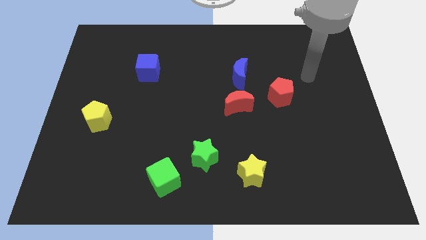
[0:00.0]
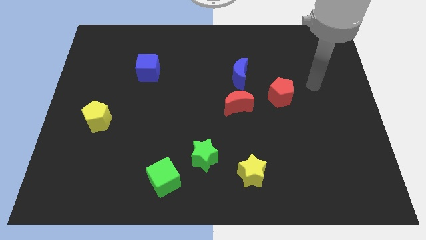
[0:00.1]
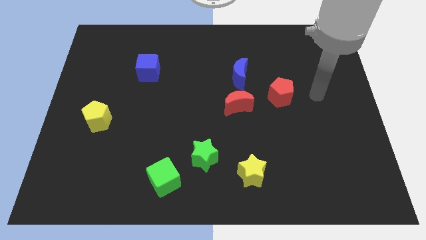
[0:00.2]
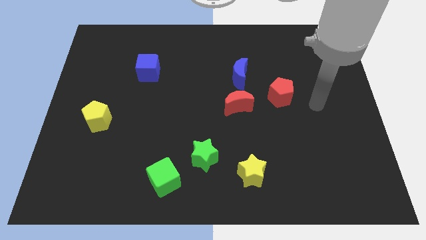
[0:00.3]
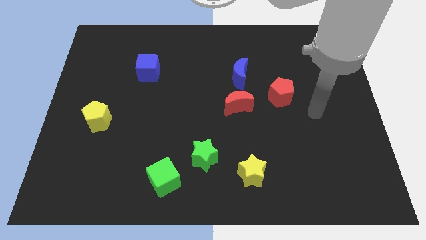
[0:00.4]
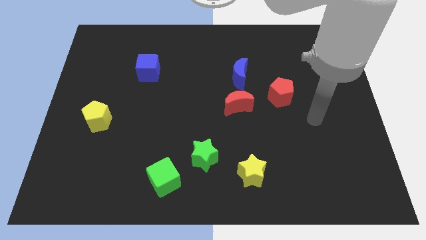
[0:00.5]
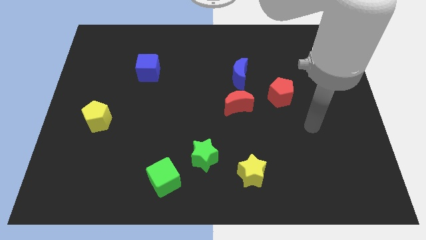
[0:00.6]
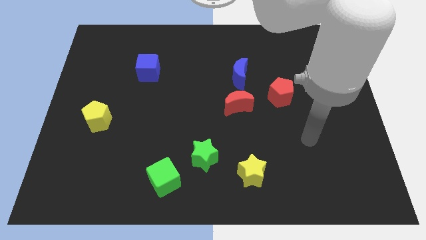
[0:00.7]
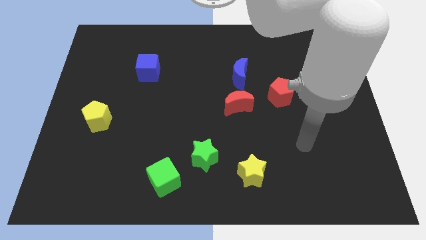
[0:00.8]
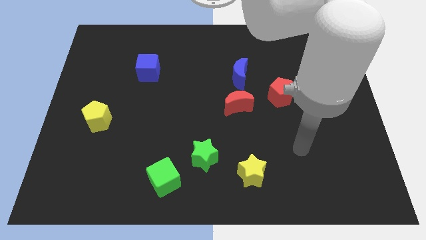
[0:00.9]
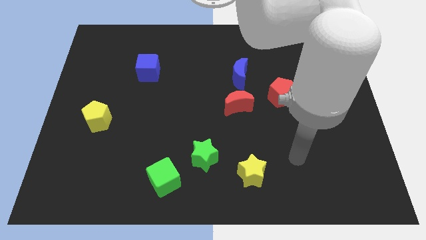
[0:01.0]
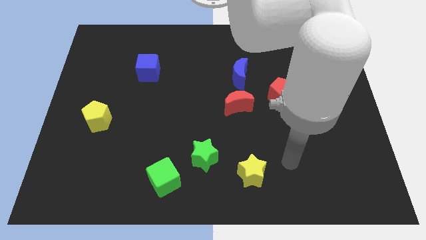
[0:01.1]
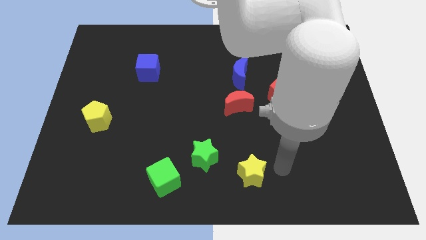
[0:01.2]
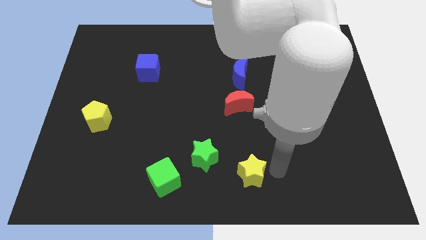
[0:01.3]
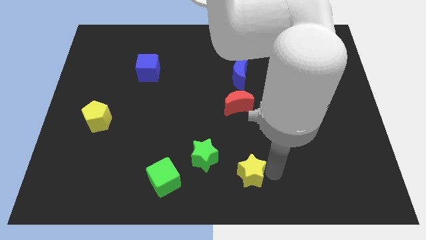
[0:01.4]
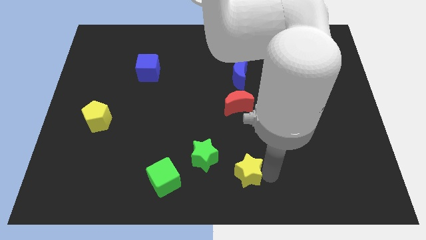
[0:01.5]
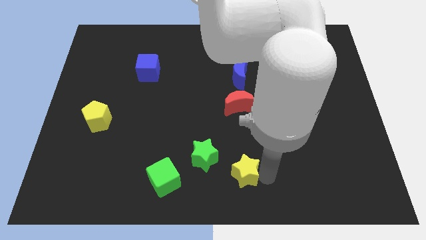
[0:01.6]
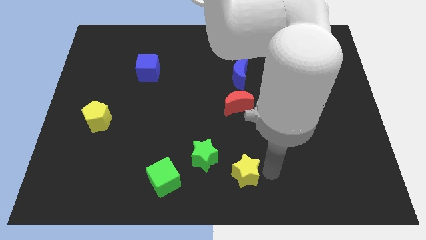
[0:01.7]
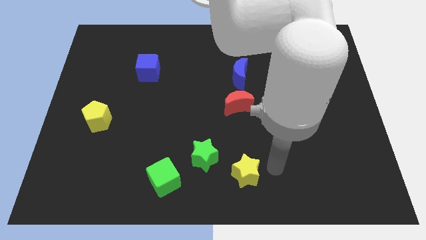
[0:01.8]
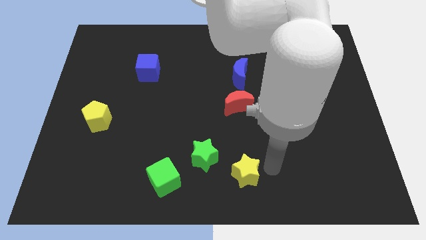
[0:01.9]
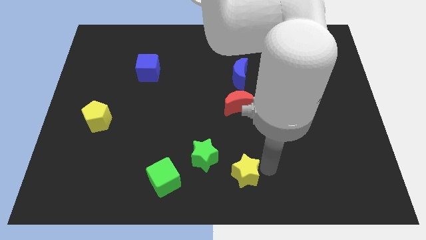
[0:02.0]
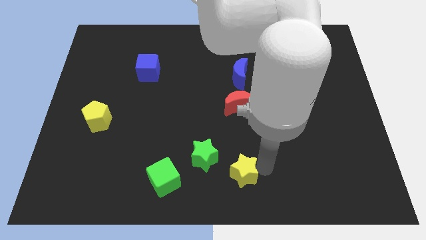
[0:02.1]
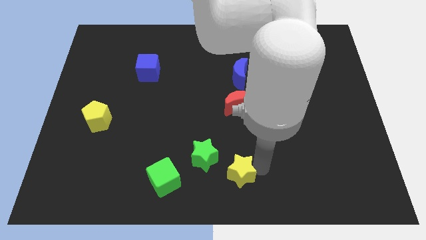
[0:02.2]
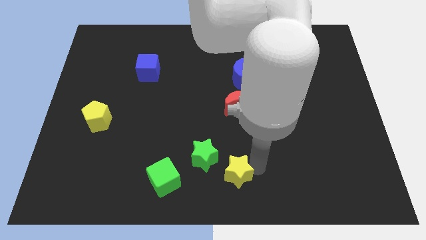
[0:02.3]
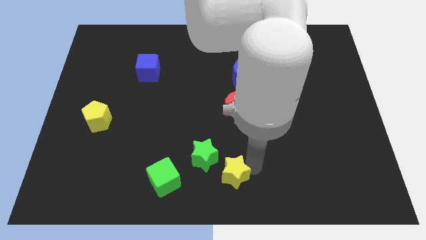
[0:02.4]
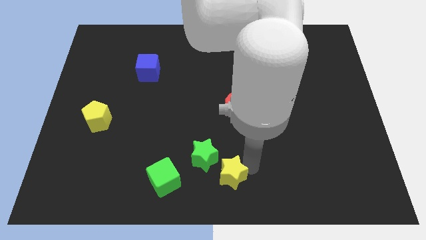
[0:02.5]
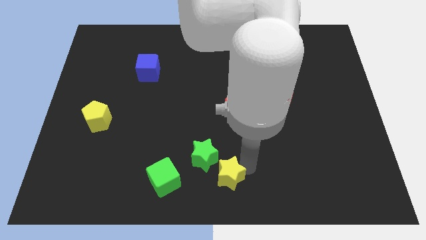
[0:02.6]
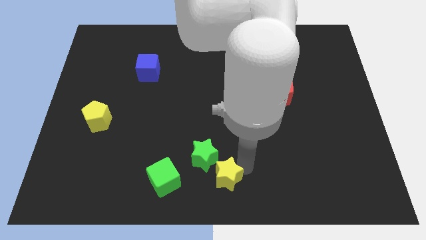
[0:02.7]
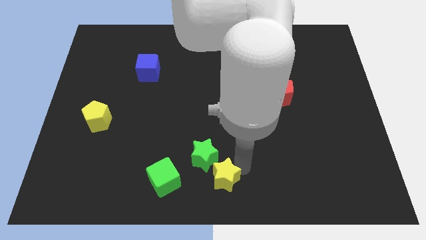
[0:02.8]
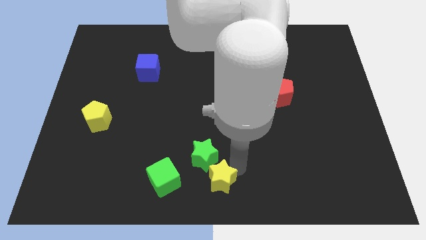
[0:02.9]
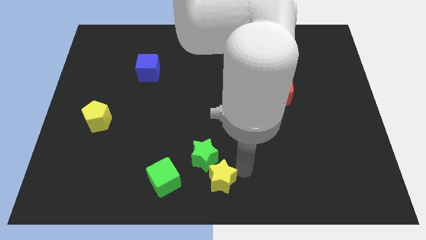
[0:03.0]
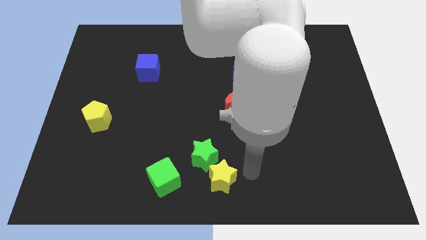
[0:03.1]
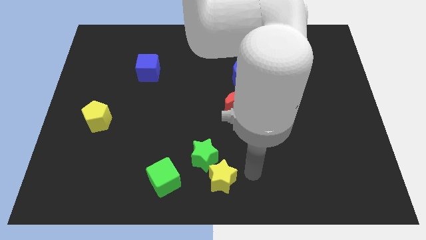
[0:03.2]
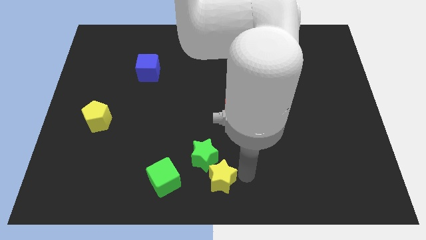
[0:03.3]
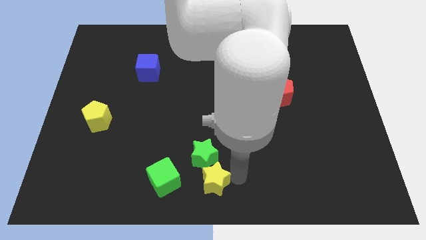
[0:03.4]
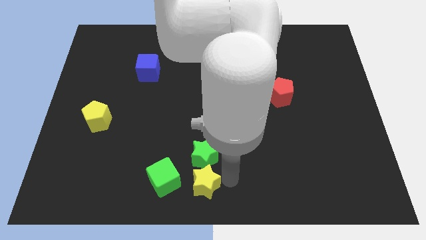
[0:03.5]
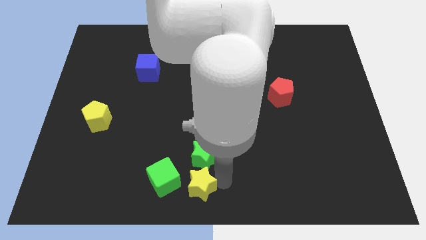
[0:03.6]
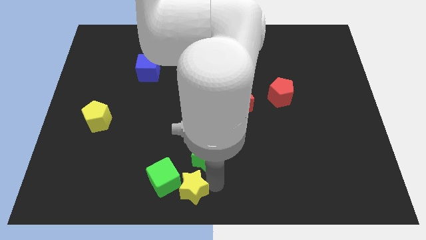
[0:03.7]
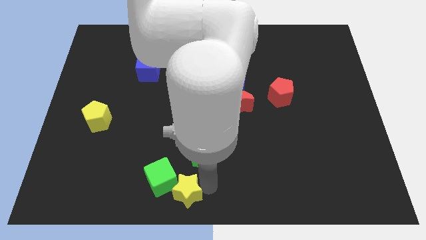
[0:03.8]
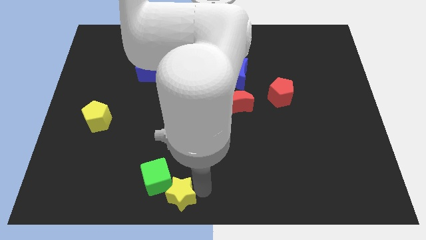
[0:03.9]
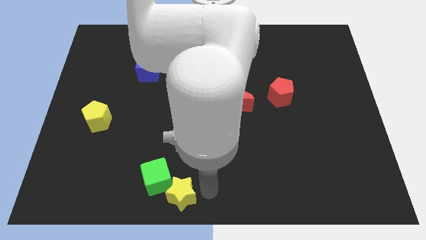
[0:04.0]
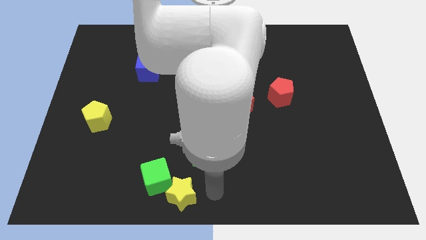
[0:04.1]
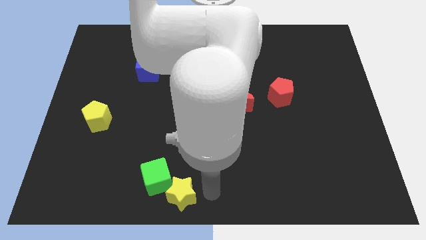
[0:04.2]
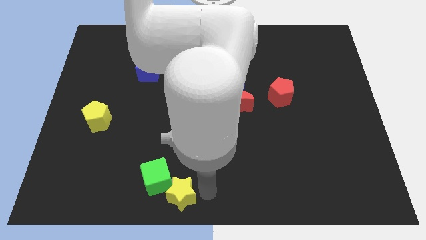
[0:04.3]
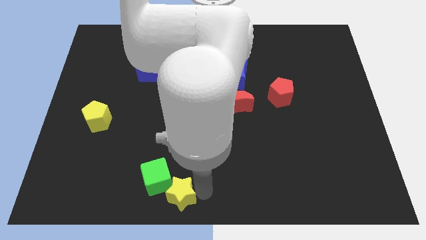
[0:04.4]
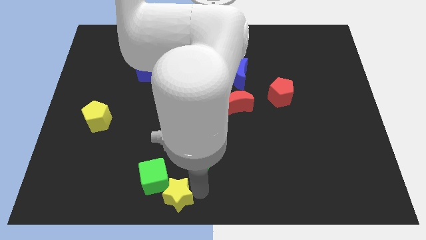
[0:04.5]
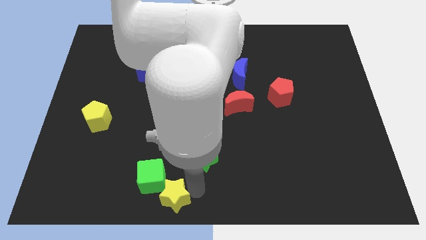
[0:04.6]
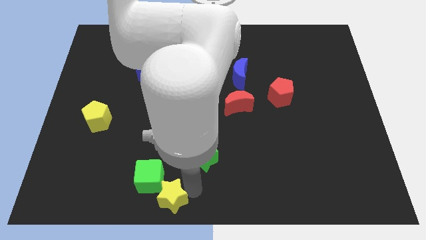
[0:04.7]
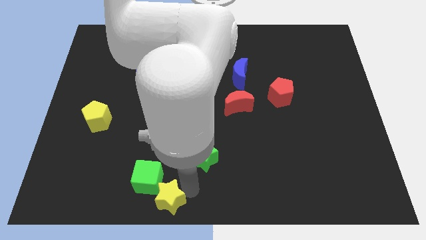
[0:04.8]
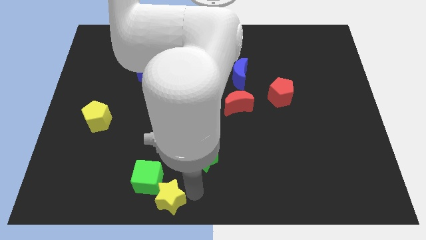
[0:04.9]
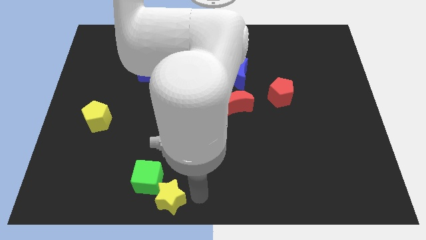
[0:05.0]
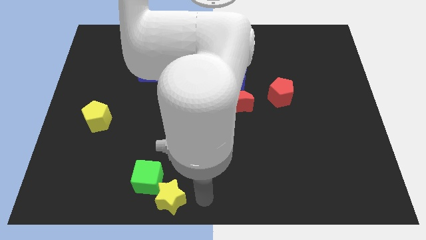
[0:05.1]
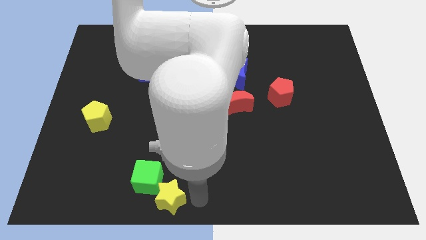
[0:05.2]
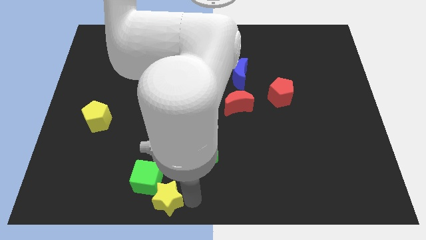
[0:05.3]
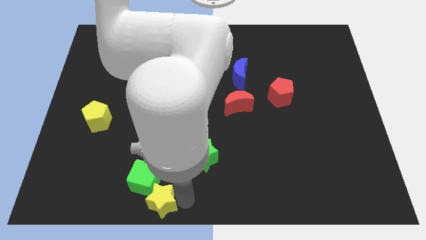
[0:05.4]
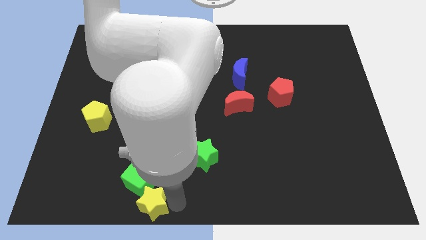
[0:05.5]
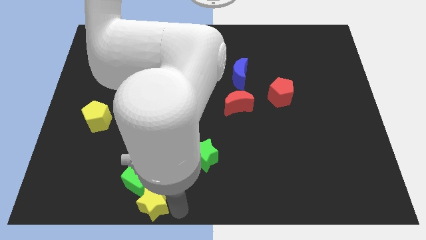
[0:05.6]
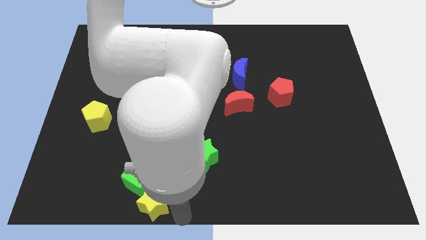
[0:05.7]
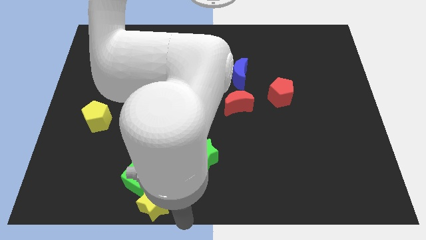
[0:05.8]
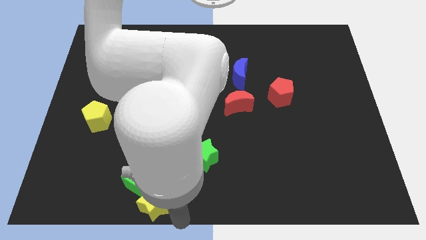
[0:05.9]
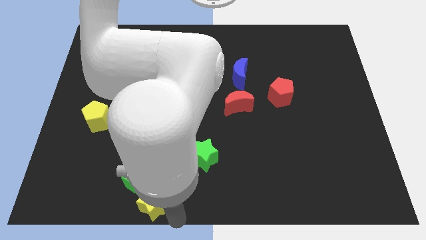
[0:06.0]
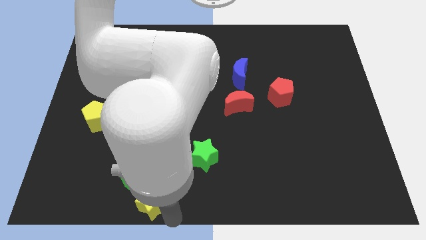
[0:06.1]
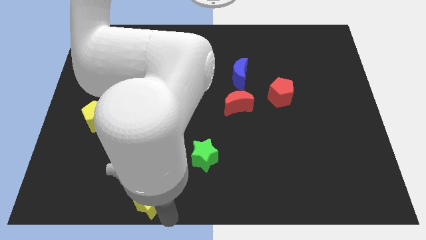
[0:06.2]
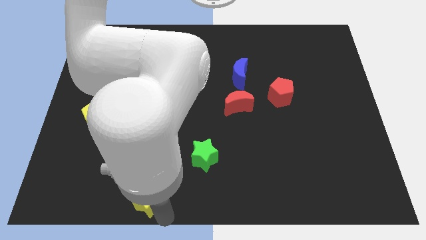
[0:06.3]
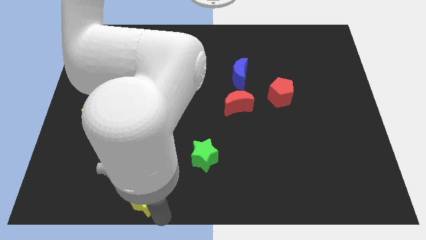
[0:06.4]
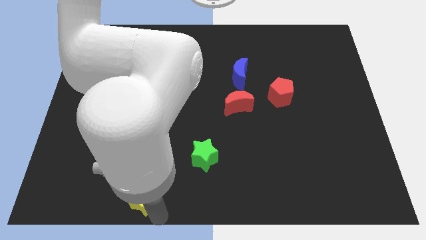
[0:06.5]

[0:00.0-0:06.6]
slide the yellow star left

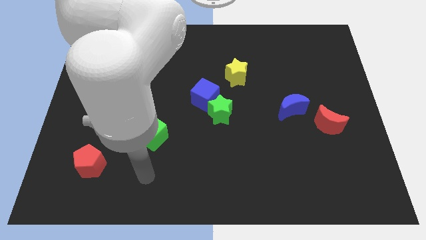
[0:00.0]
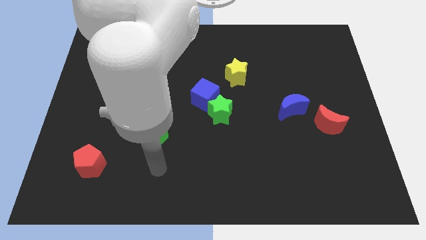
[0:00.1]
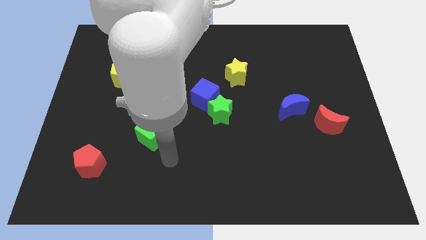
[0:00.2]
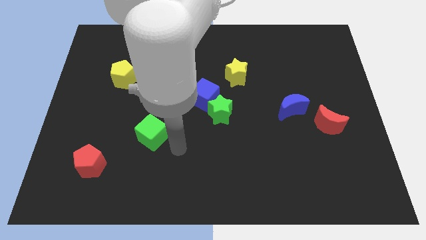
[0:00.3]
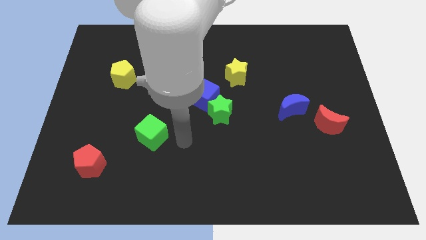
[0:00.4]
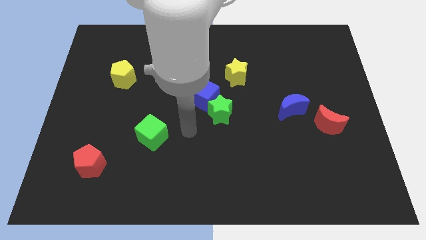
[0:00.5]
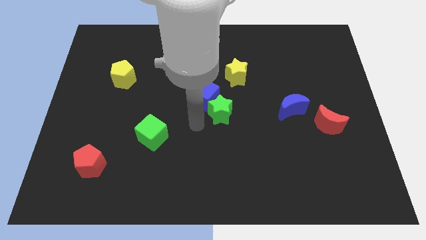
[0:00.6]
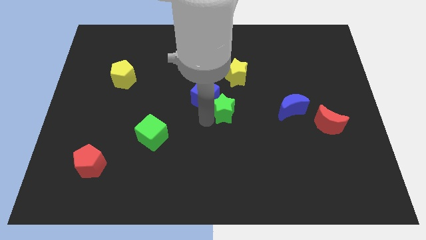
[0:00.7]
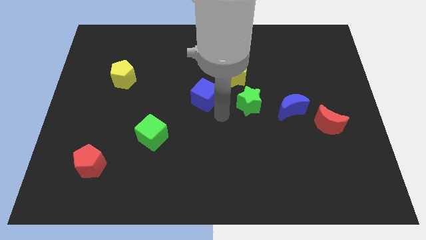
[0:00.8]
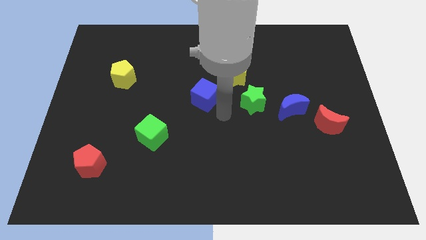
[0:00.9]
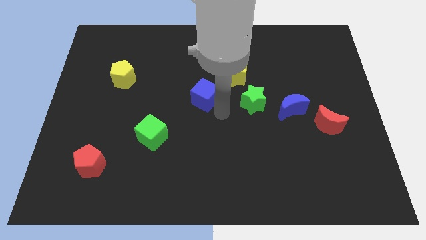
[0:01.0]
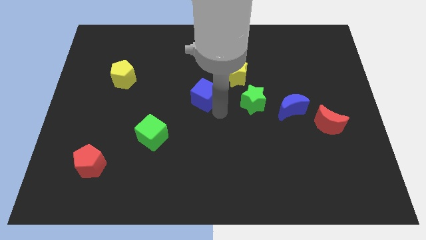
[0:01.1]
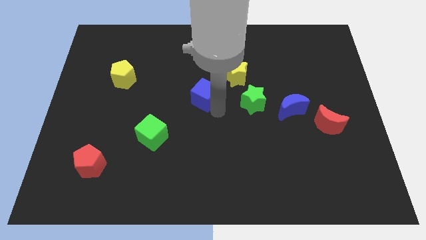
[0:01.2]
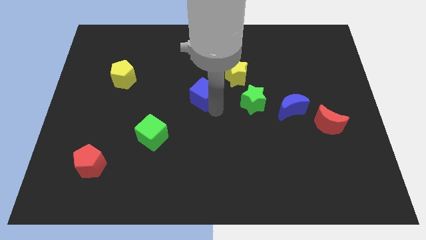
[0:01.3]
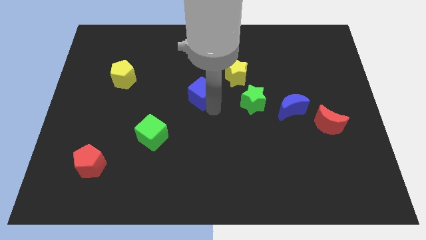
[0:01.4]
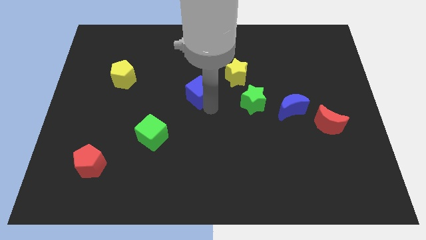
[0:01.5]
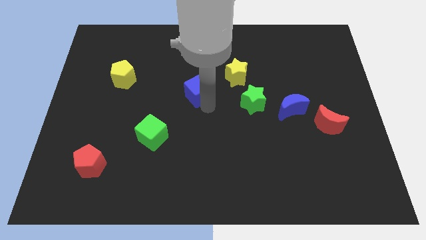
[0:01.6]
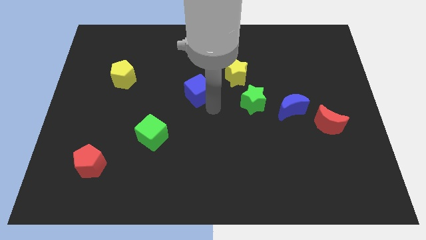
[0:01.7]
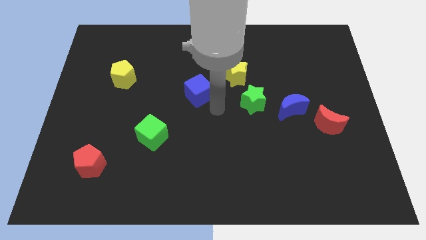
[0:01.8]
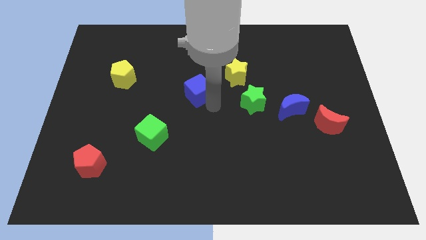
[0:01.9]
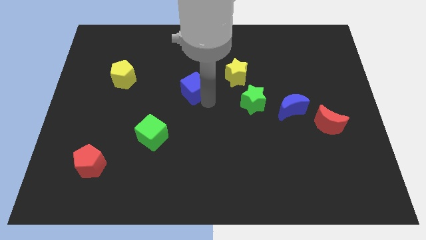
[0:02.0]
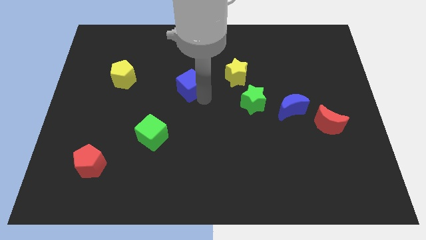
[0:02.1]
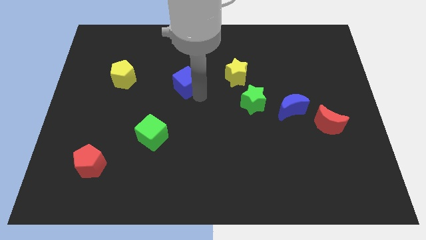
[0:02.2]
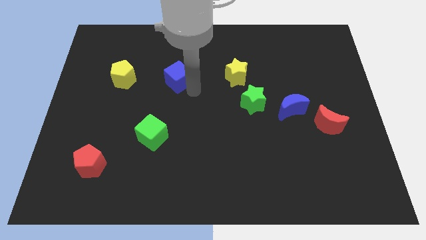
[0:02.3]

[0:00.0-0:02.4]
push the blue cube somewhat diagonally upwards and to the left
